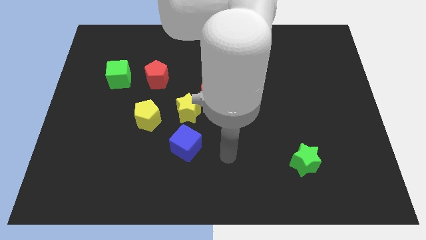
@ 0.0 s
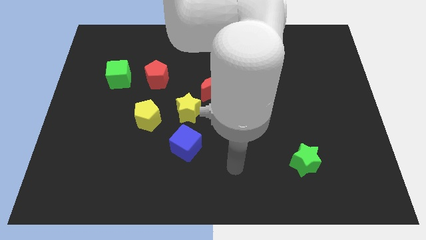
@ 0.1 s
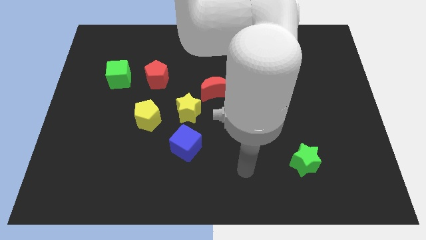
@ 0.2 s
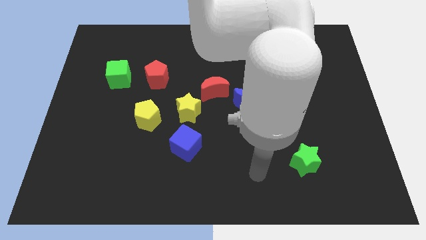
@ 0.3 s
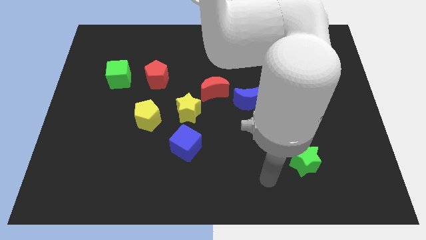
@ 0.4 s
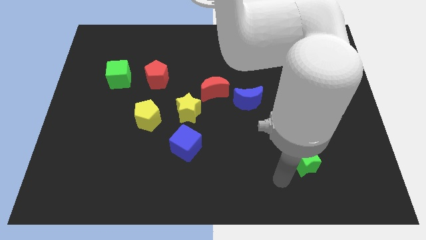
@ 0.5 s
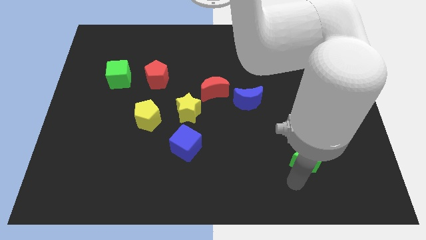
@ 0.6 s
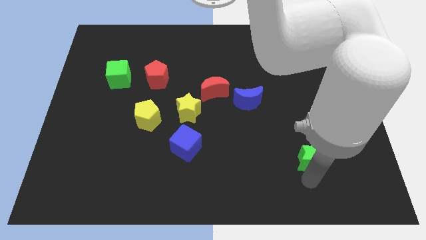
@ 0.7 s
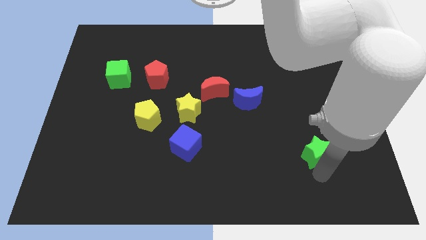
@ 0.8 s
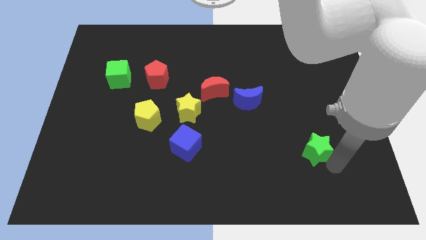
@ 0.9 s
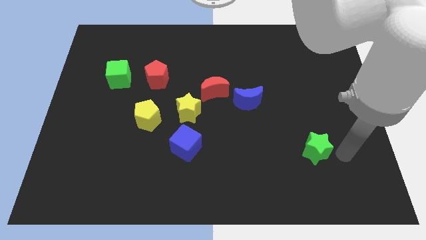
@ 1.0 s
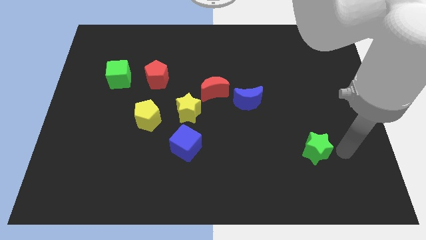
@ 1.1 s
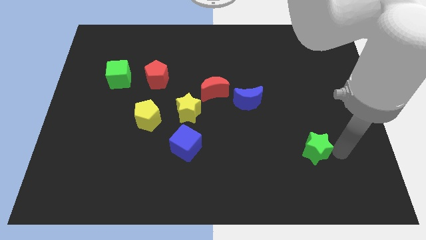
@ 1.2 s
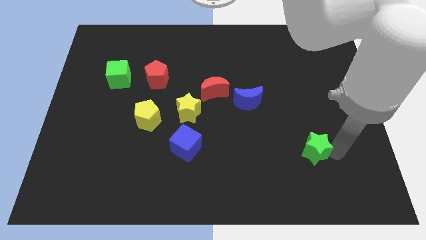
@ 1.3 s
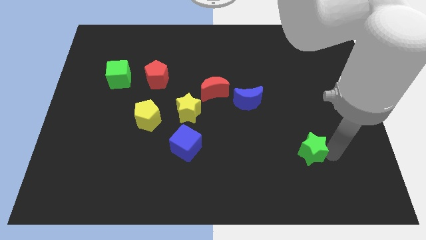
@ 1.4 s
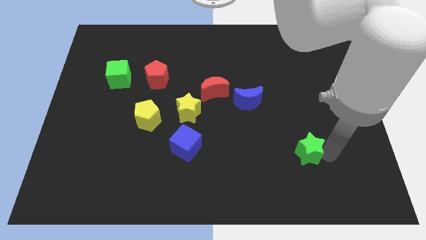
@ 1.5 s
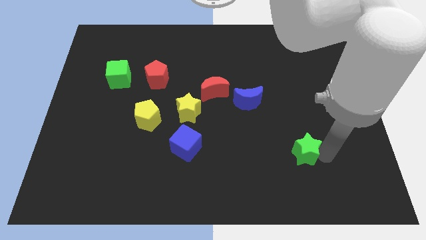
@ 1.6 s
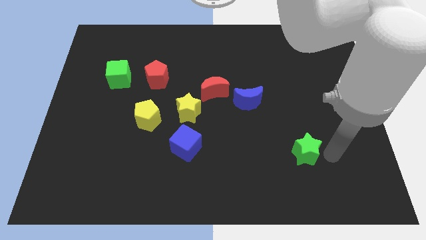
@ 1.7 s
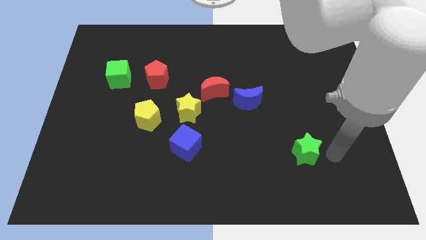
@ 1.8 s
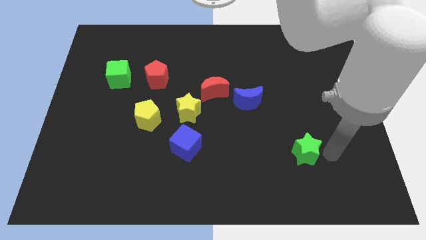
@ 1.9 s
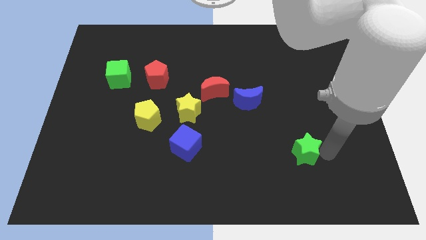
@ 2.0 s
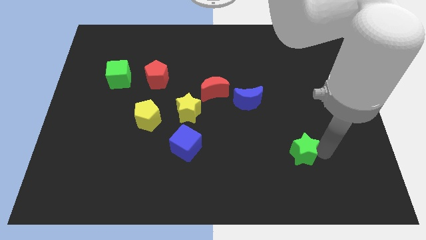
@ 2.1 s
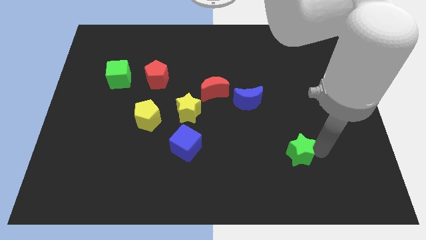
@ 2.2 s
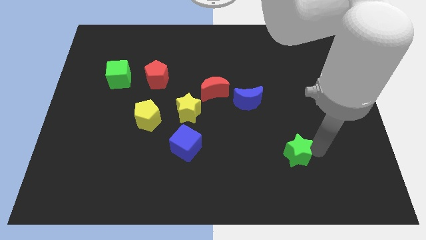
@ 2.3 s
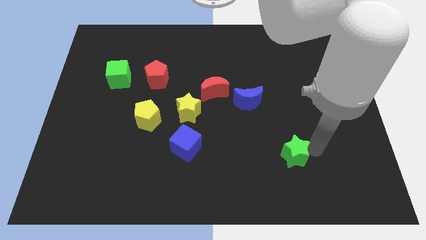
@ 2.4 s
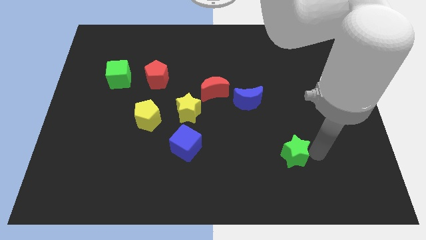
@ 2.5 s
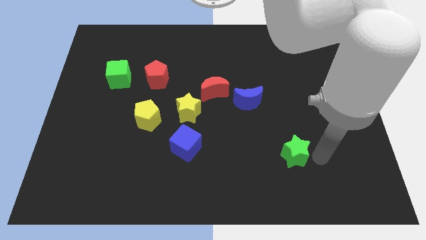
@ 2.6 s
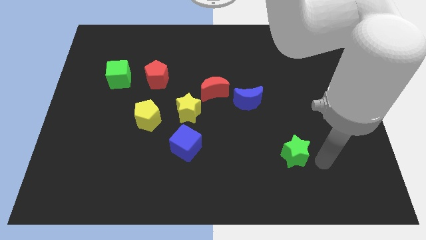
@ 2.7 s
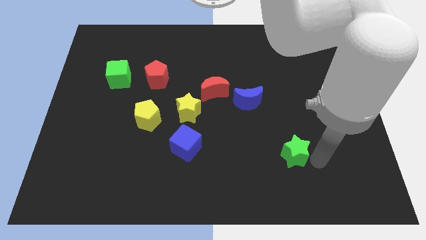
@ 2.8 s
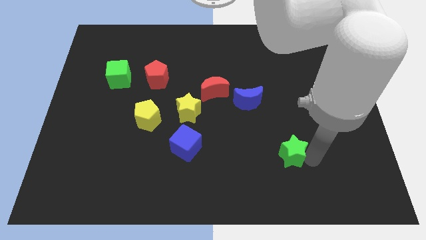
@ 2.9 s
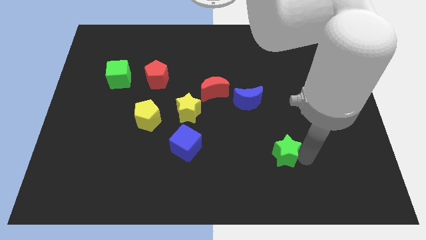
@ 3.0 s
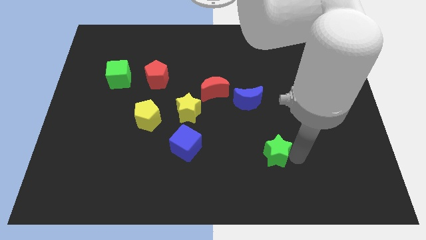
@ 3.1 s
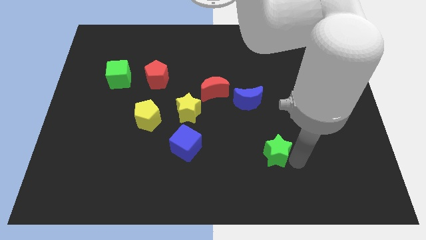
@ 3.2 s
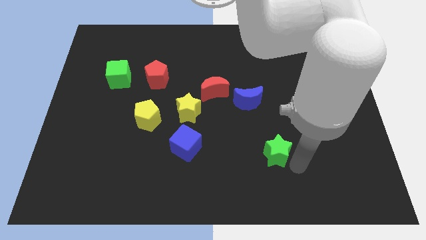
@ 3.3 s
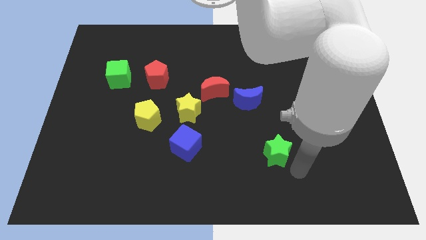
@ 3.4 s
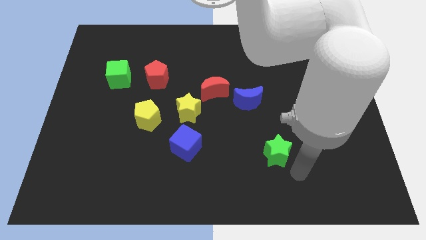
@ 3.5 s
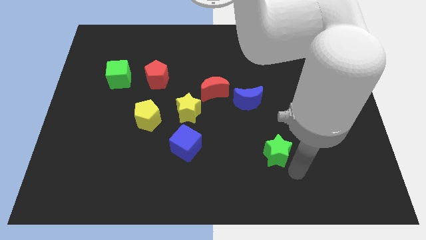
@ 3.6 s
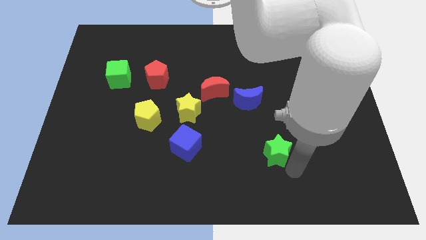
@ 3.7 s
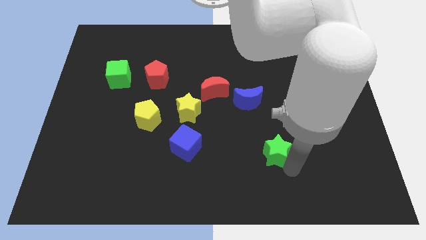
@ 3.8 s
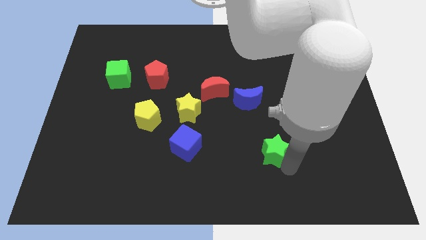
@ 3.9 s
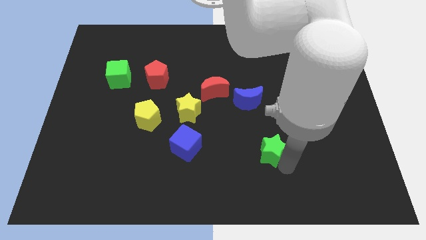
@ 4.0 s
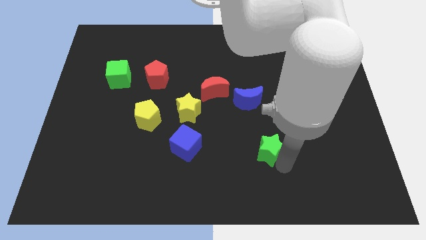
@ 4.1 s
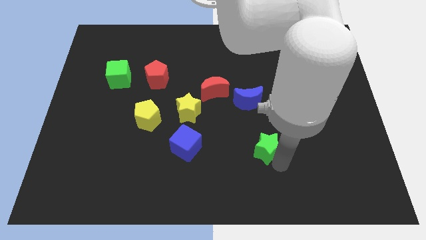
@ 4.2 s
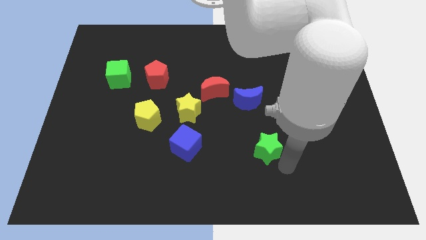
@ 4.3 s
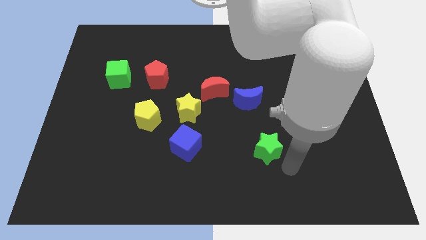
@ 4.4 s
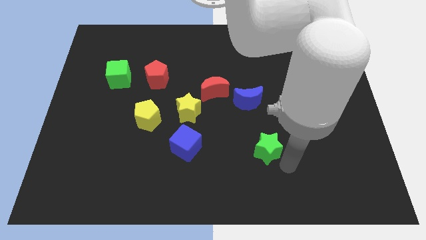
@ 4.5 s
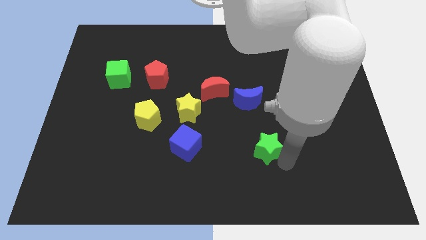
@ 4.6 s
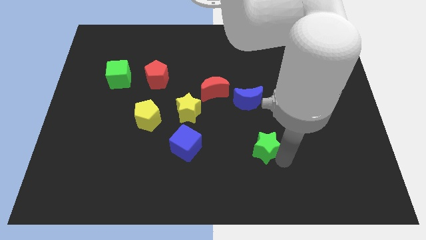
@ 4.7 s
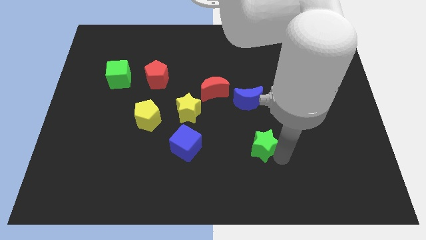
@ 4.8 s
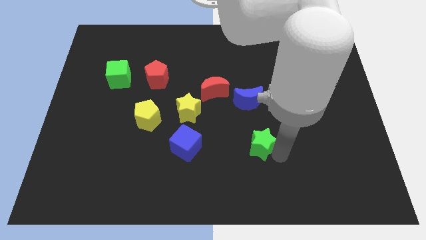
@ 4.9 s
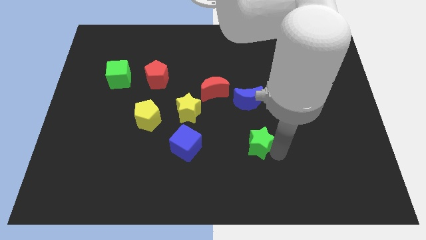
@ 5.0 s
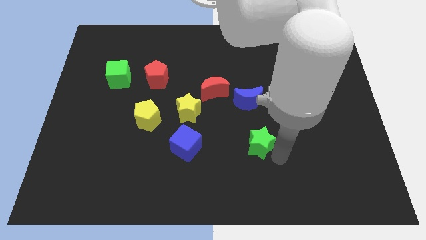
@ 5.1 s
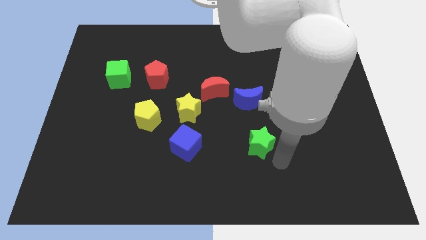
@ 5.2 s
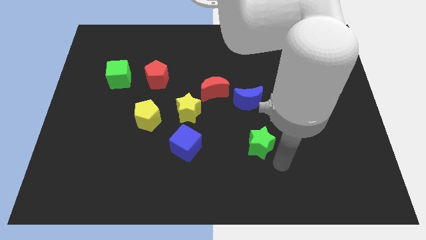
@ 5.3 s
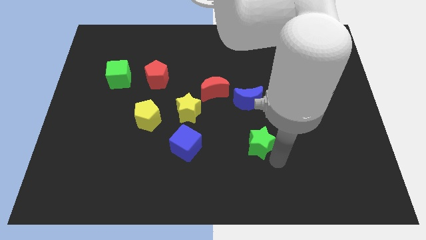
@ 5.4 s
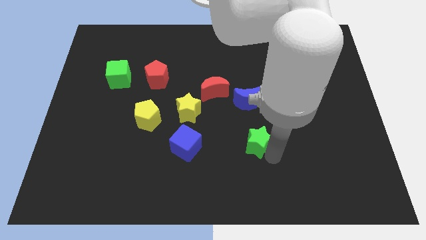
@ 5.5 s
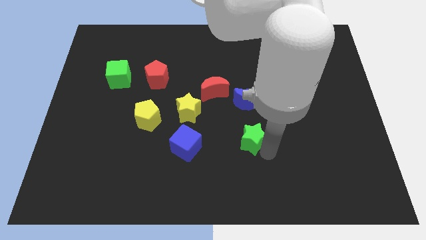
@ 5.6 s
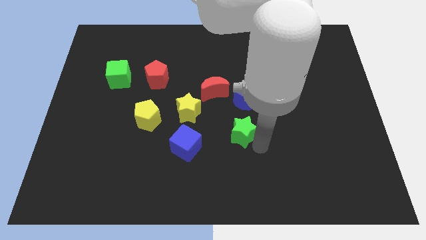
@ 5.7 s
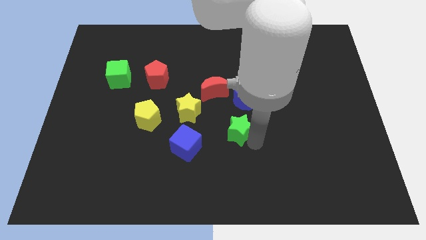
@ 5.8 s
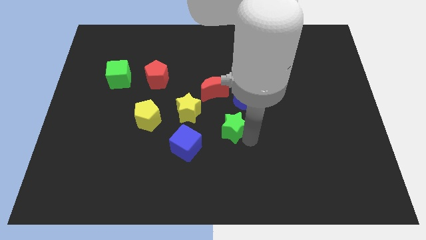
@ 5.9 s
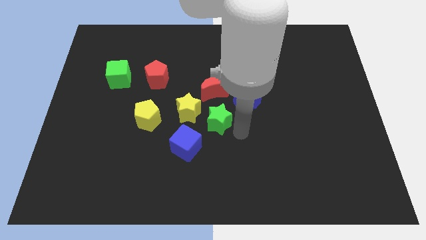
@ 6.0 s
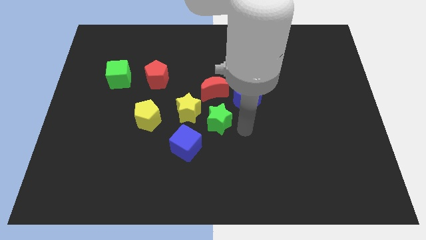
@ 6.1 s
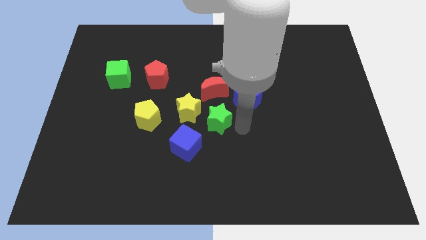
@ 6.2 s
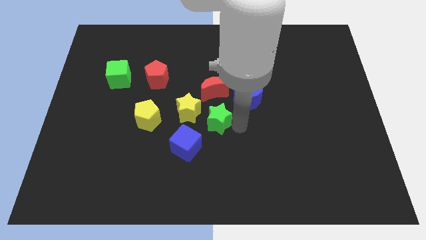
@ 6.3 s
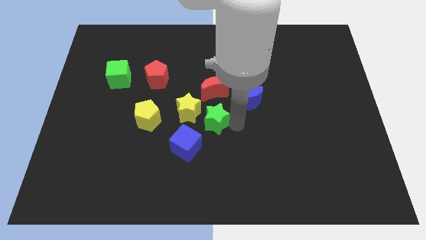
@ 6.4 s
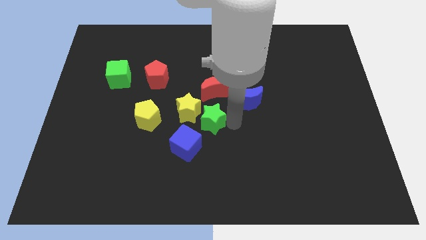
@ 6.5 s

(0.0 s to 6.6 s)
push the green star to the yellow star

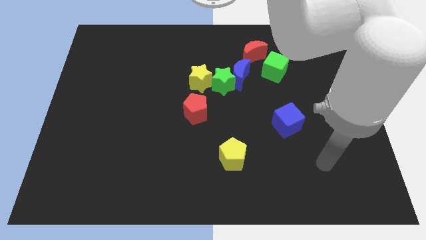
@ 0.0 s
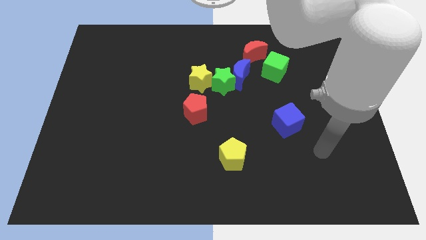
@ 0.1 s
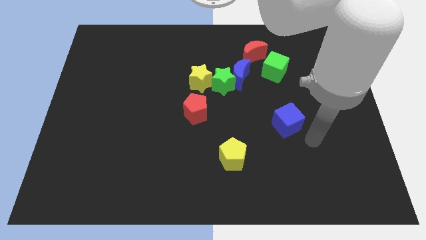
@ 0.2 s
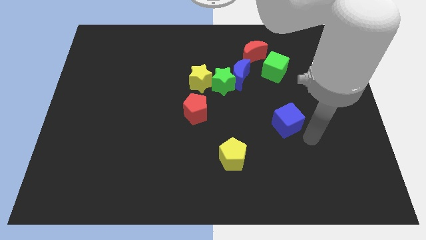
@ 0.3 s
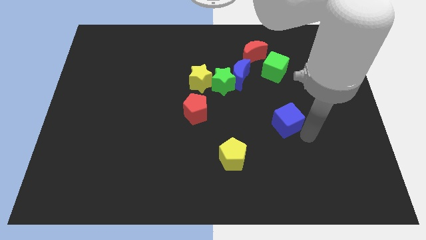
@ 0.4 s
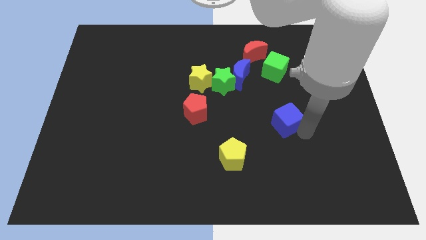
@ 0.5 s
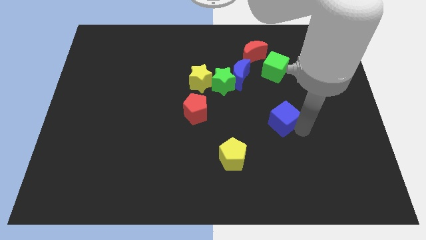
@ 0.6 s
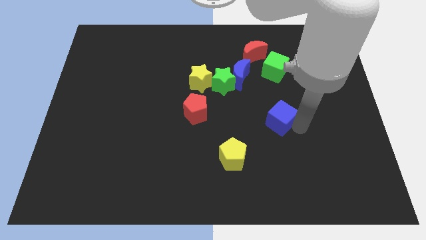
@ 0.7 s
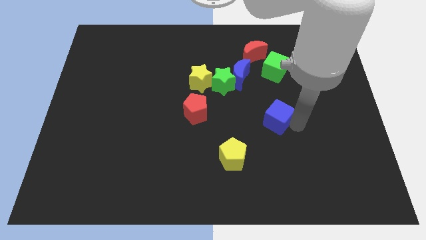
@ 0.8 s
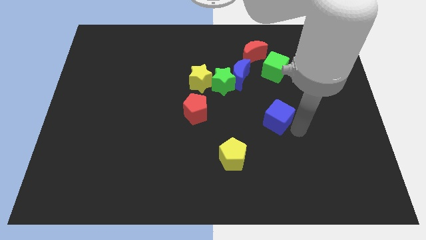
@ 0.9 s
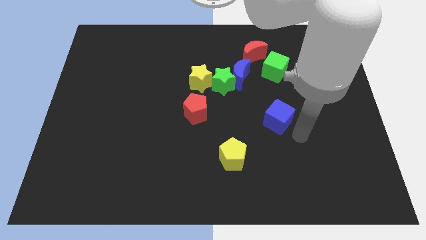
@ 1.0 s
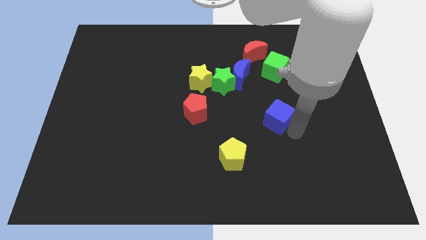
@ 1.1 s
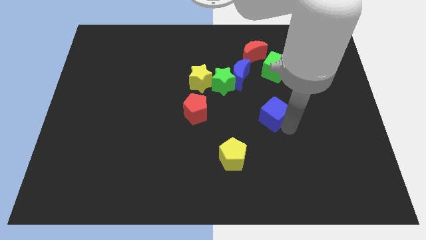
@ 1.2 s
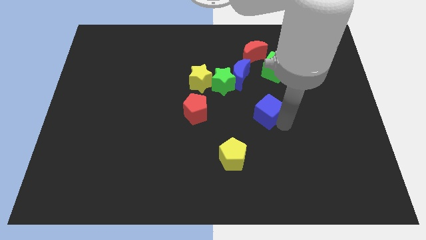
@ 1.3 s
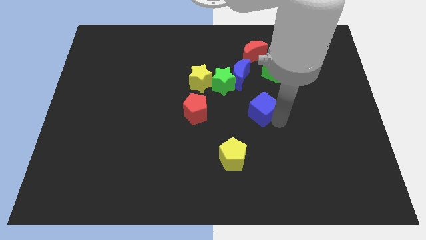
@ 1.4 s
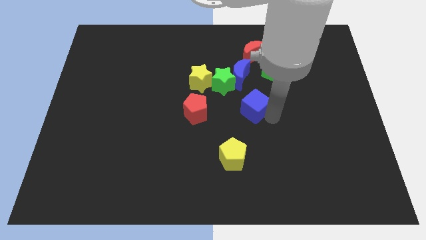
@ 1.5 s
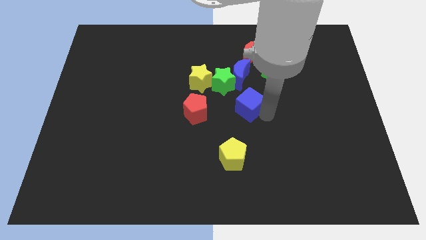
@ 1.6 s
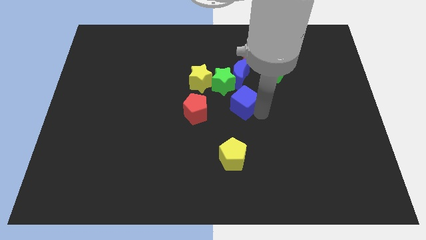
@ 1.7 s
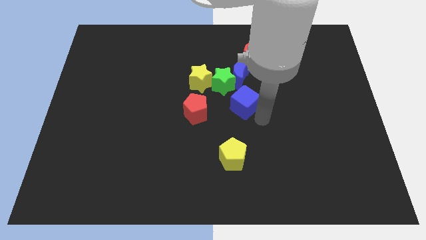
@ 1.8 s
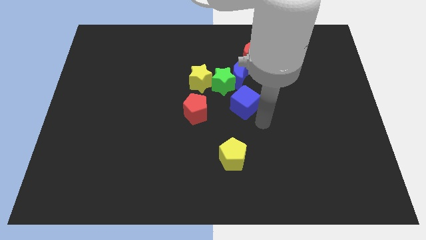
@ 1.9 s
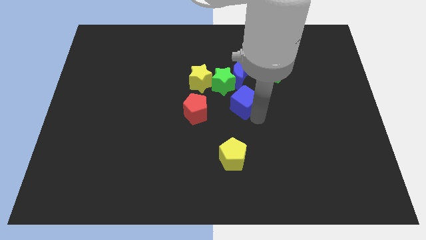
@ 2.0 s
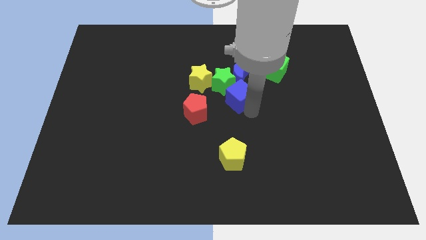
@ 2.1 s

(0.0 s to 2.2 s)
move the blue cube close to the green star
